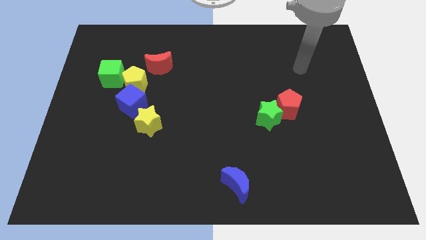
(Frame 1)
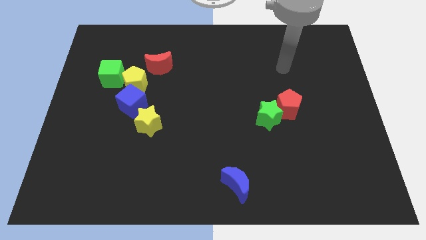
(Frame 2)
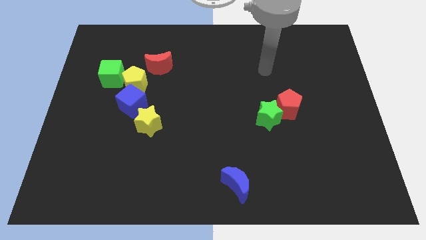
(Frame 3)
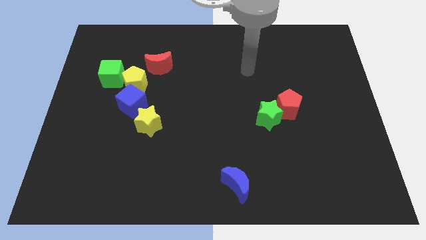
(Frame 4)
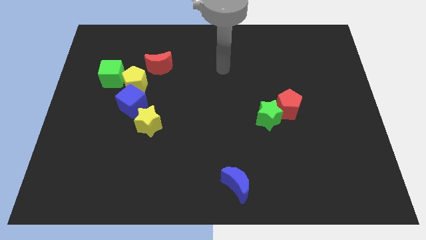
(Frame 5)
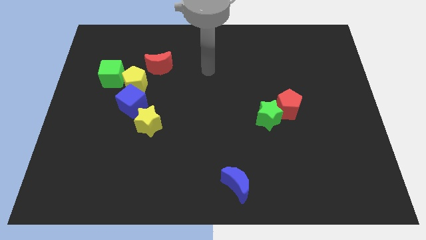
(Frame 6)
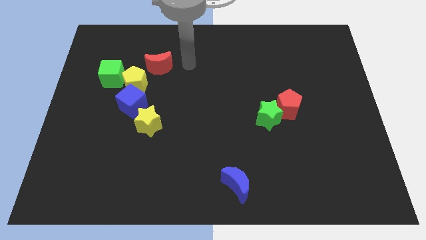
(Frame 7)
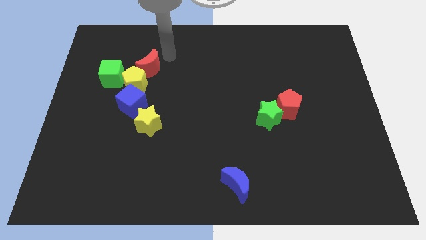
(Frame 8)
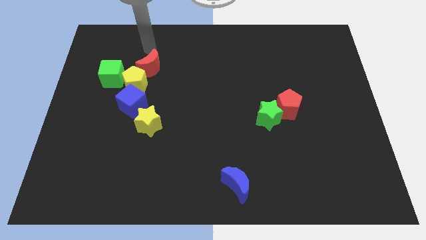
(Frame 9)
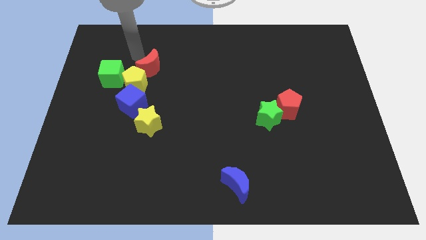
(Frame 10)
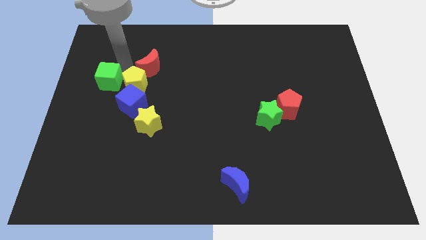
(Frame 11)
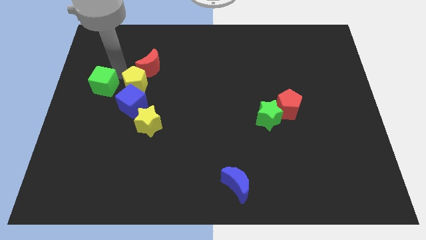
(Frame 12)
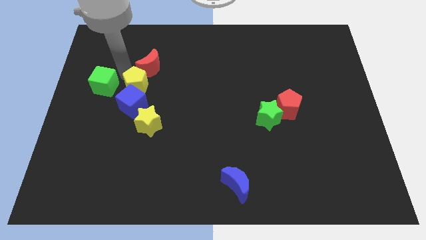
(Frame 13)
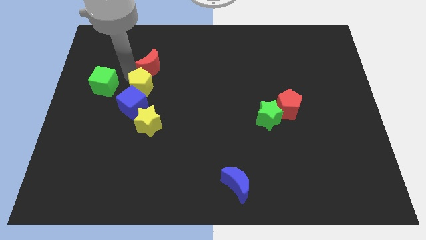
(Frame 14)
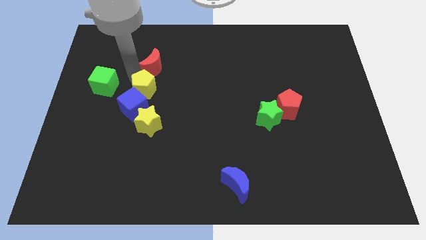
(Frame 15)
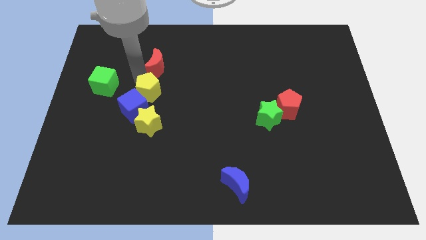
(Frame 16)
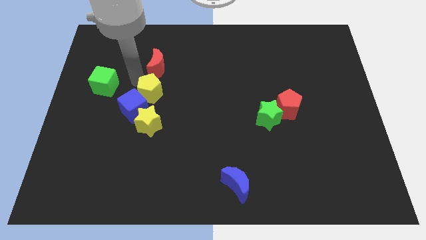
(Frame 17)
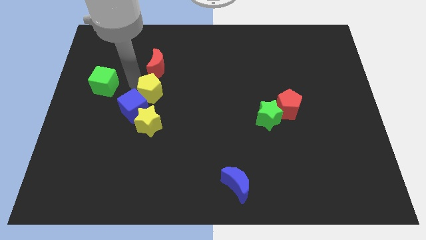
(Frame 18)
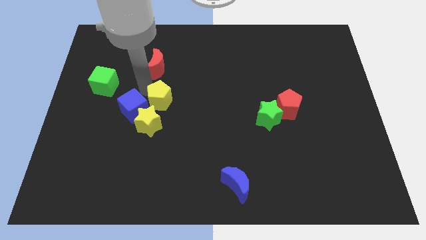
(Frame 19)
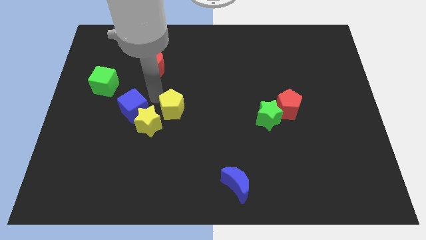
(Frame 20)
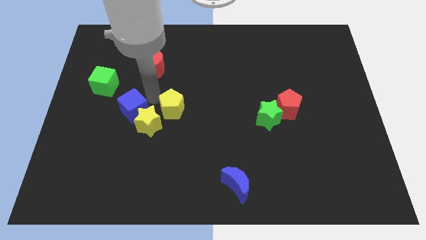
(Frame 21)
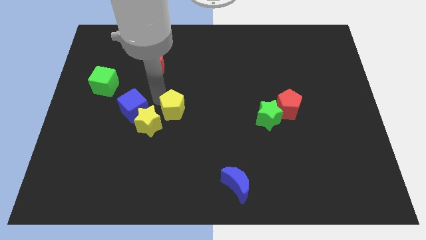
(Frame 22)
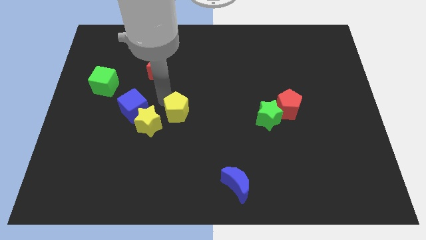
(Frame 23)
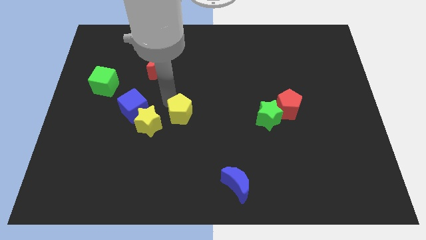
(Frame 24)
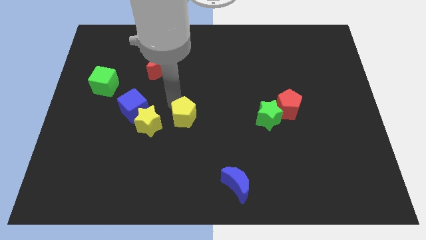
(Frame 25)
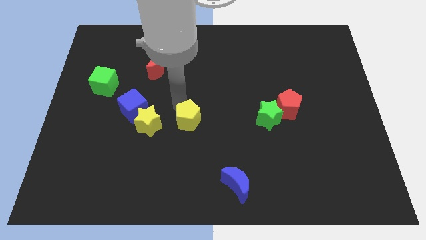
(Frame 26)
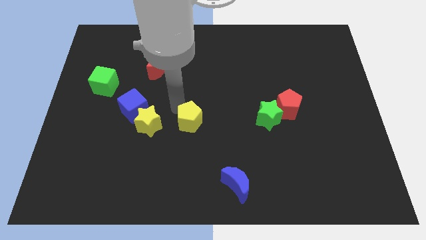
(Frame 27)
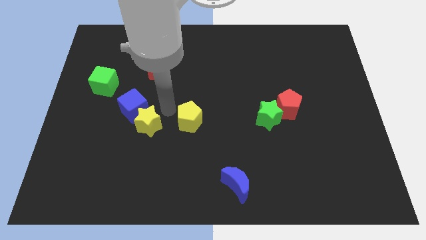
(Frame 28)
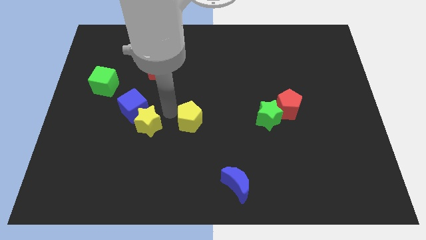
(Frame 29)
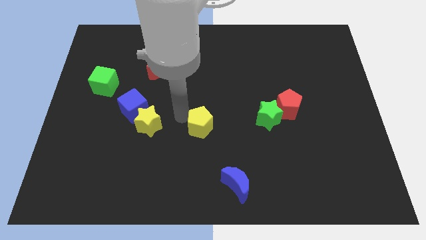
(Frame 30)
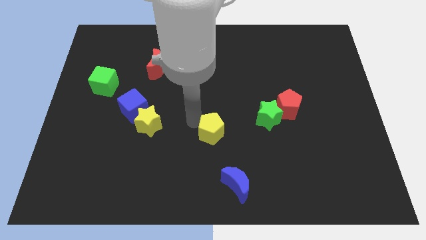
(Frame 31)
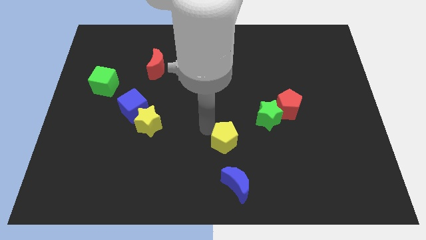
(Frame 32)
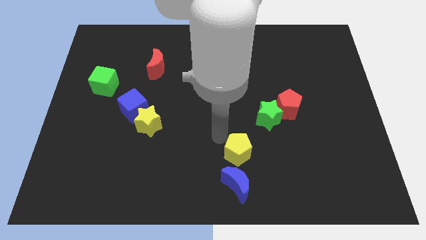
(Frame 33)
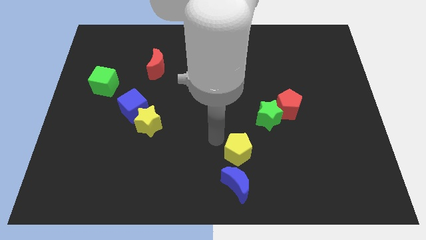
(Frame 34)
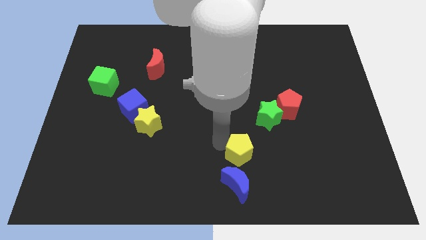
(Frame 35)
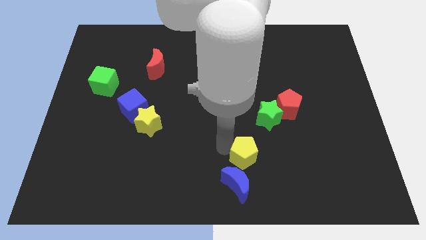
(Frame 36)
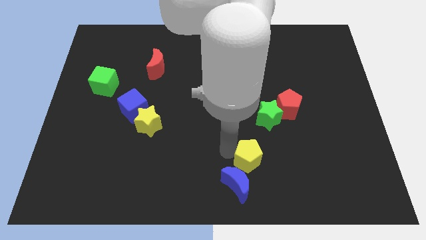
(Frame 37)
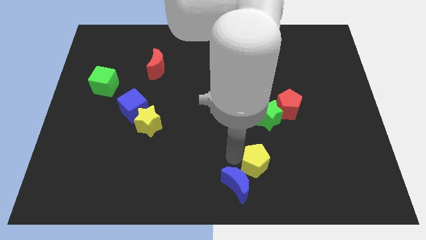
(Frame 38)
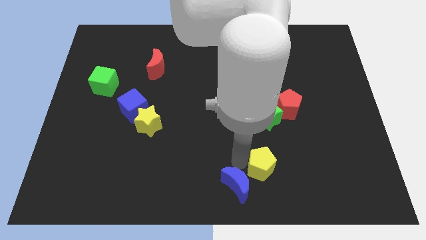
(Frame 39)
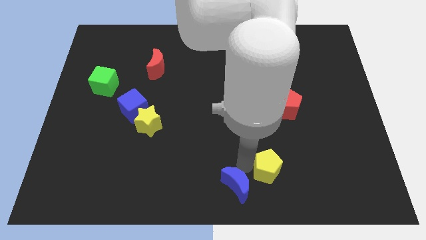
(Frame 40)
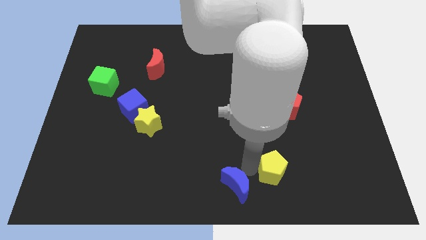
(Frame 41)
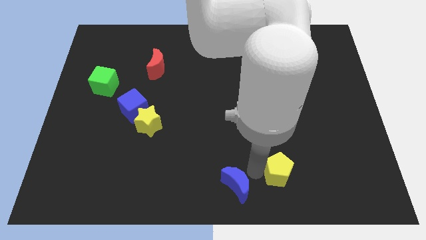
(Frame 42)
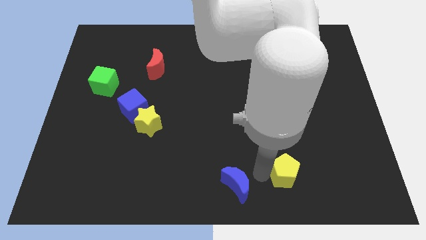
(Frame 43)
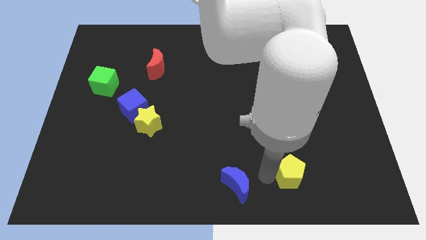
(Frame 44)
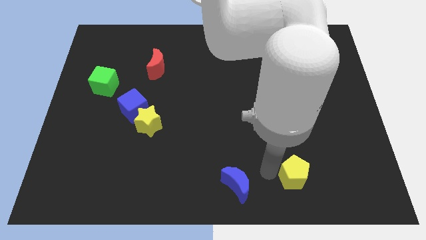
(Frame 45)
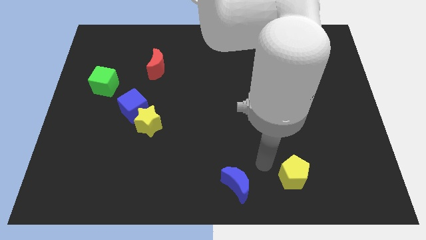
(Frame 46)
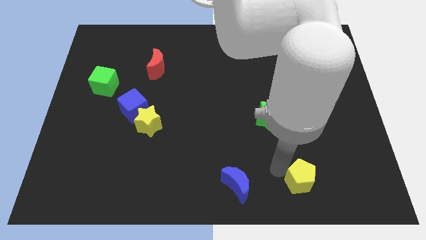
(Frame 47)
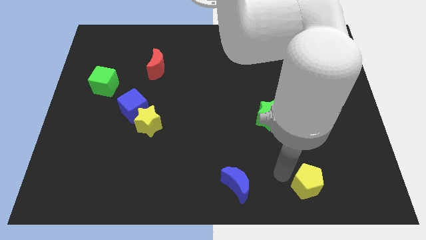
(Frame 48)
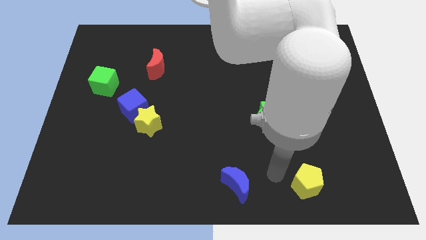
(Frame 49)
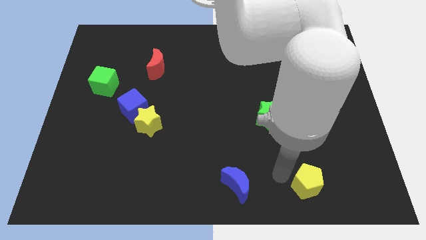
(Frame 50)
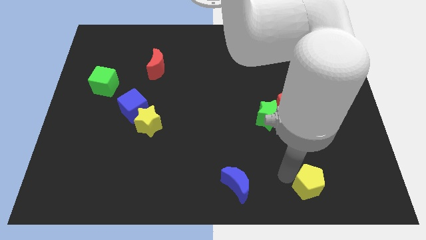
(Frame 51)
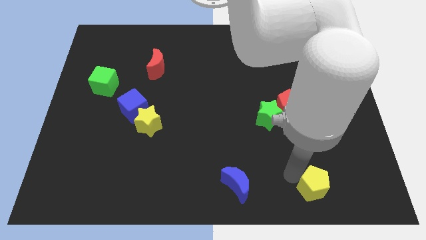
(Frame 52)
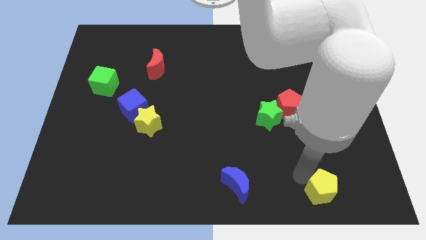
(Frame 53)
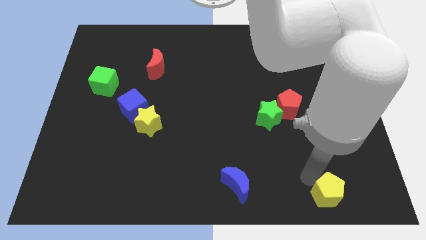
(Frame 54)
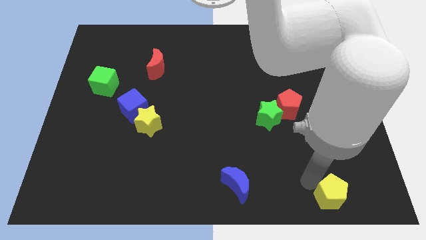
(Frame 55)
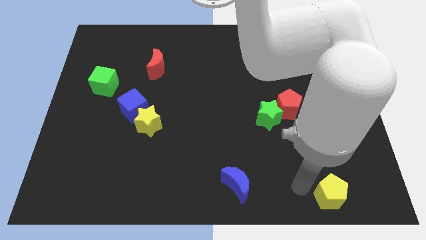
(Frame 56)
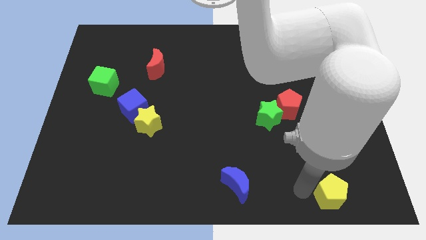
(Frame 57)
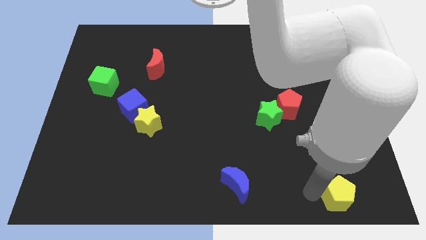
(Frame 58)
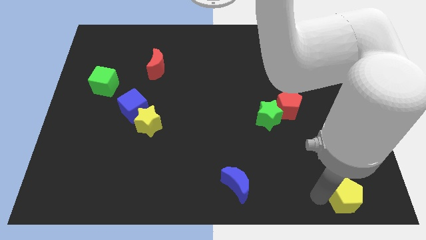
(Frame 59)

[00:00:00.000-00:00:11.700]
slide the yellow pentagon to the bottom right of the board

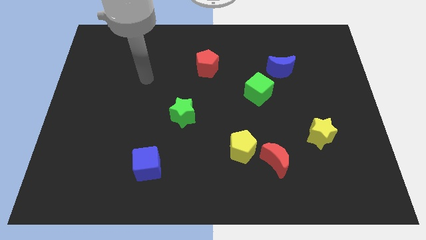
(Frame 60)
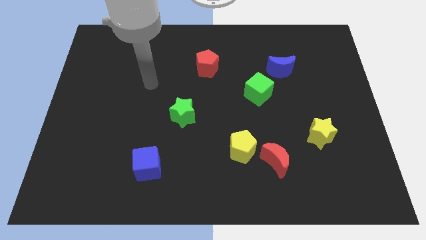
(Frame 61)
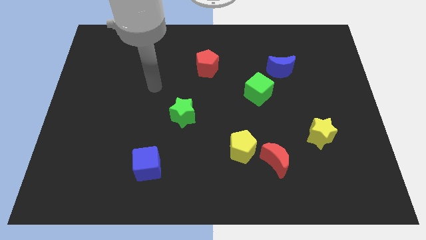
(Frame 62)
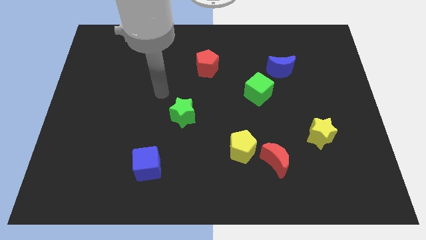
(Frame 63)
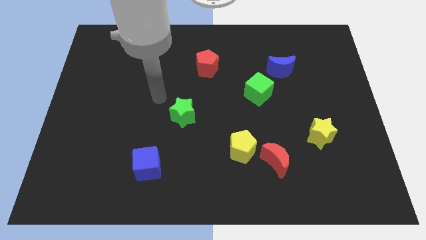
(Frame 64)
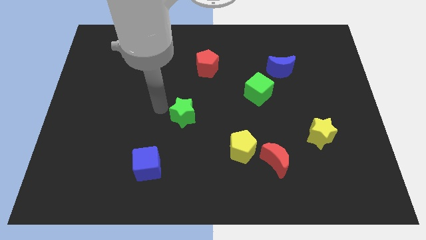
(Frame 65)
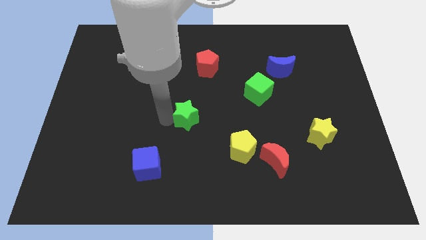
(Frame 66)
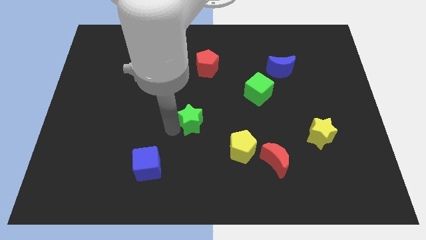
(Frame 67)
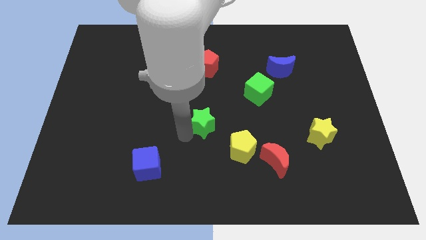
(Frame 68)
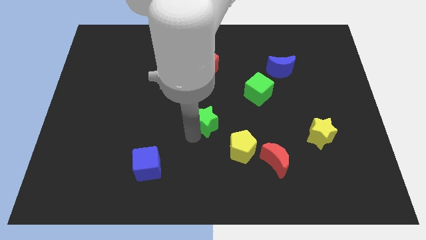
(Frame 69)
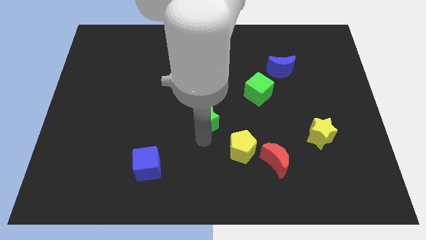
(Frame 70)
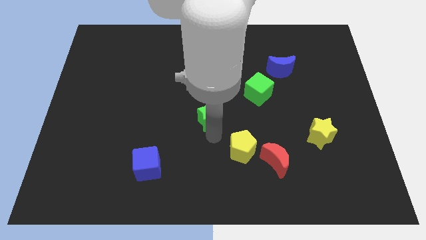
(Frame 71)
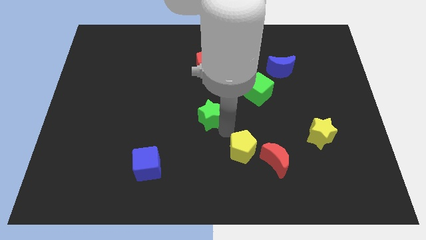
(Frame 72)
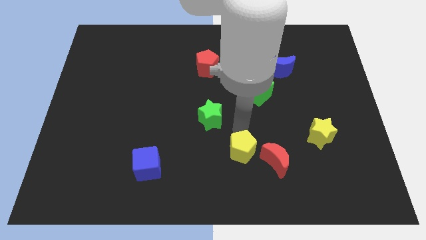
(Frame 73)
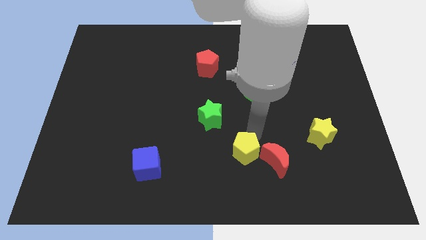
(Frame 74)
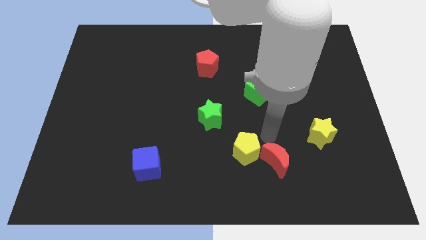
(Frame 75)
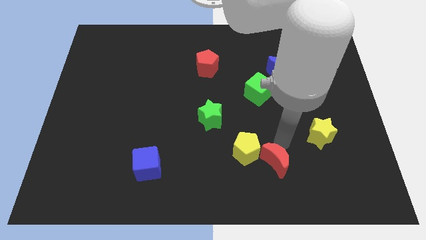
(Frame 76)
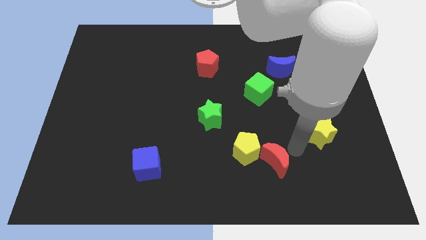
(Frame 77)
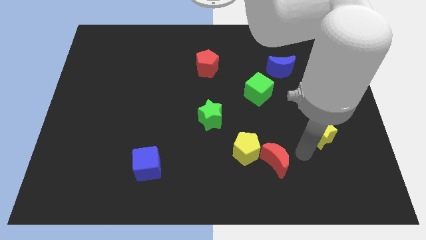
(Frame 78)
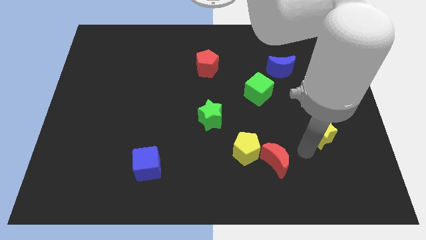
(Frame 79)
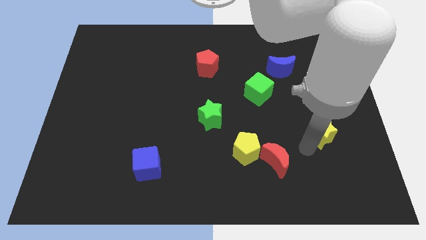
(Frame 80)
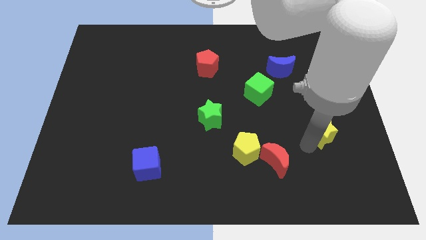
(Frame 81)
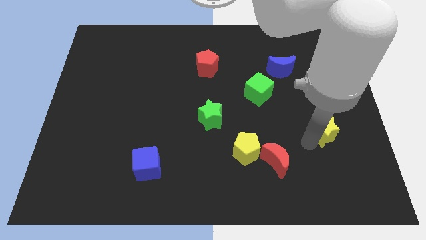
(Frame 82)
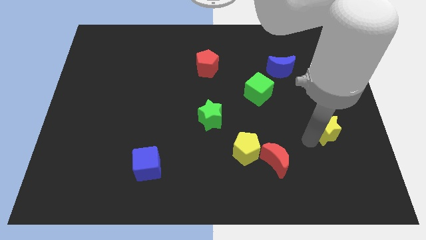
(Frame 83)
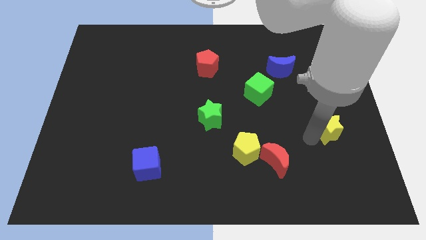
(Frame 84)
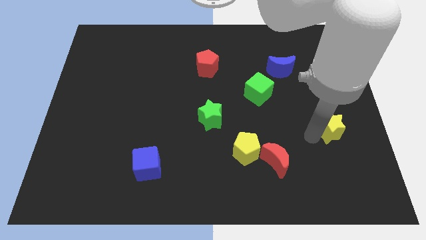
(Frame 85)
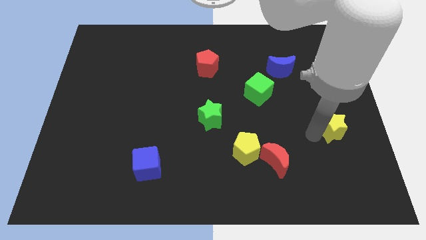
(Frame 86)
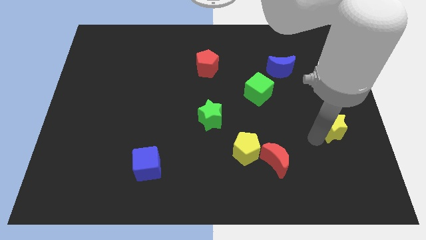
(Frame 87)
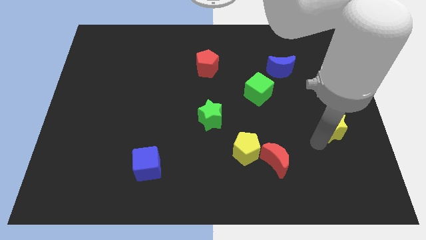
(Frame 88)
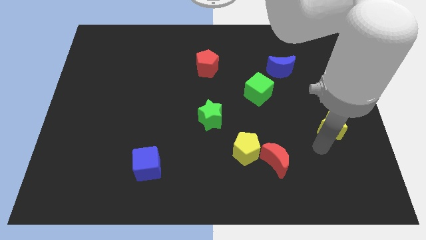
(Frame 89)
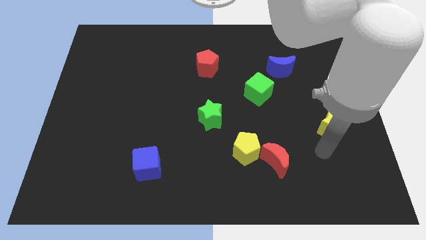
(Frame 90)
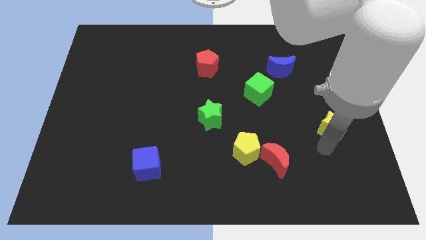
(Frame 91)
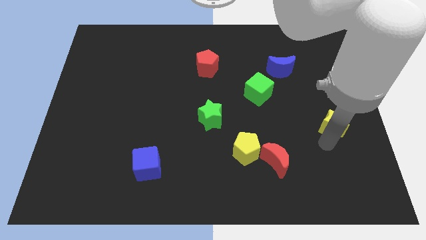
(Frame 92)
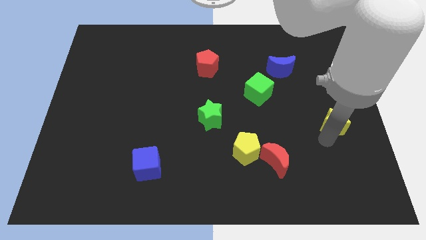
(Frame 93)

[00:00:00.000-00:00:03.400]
move the yellow star to the center right
